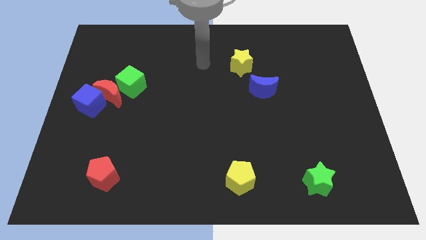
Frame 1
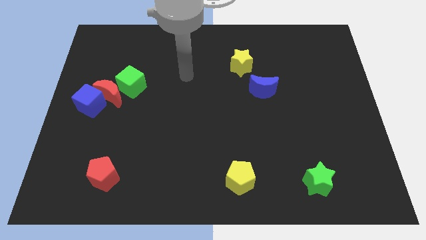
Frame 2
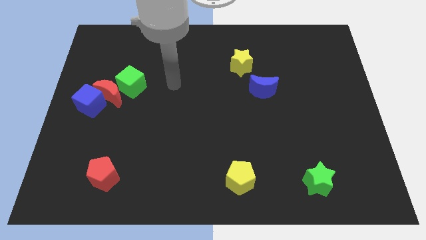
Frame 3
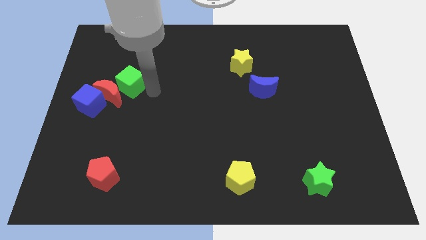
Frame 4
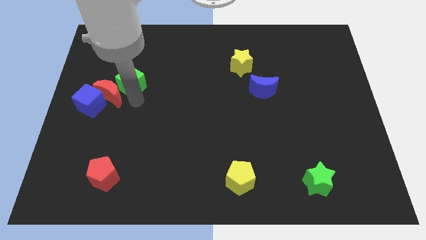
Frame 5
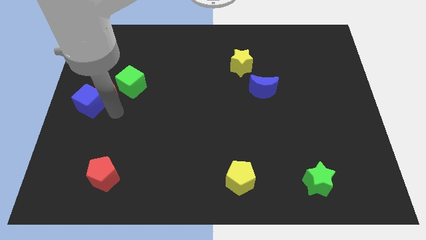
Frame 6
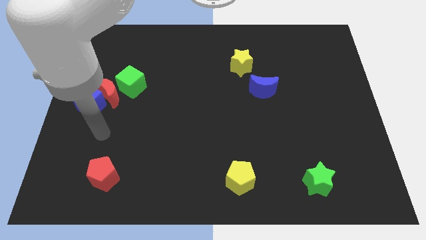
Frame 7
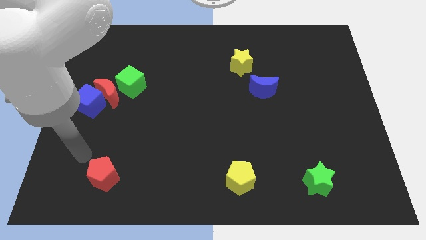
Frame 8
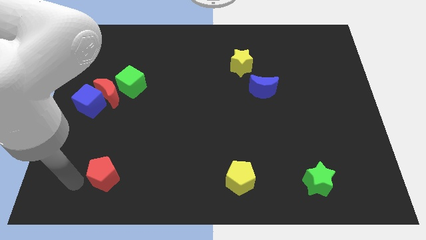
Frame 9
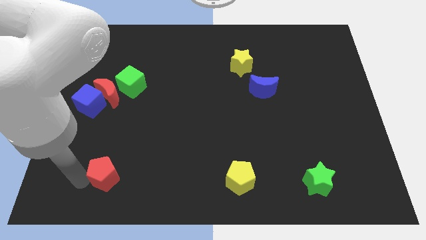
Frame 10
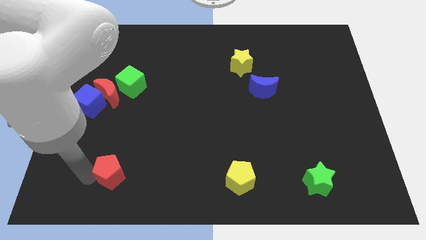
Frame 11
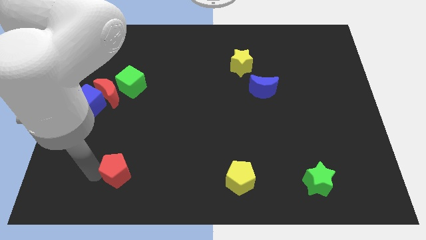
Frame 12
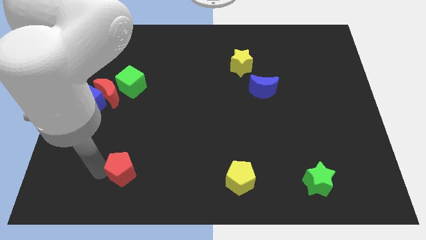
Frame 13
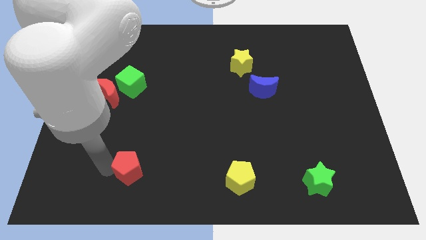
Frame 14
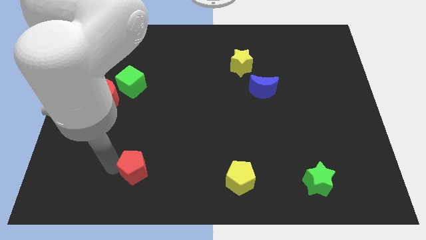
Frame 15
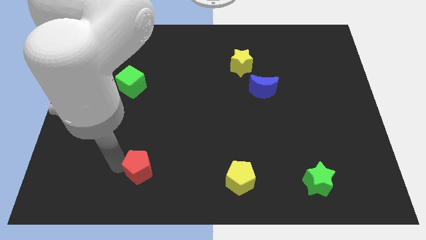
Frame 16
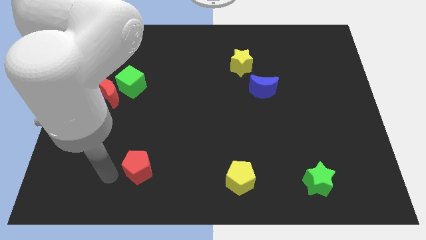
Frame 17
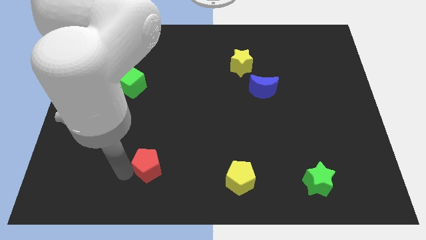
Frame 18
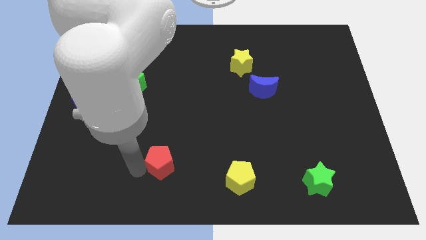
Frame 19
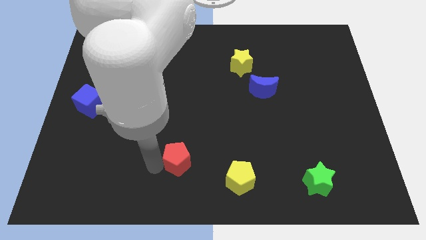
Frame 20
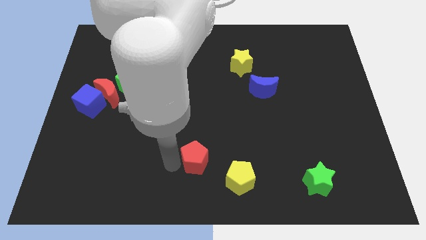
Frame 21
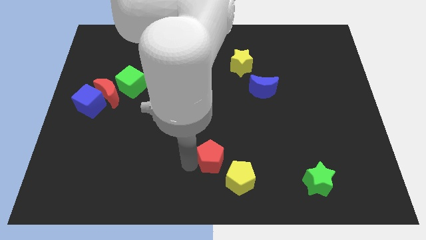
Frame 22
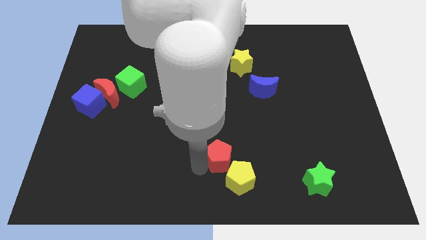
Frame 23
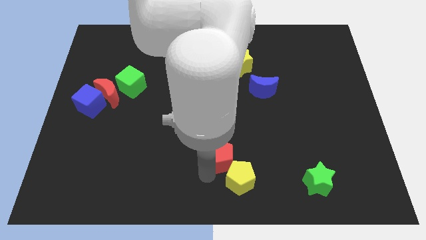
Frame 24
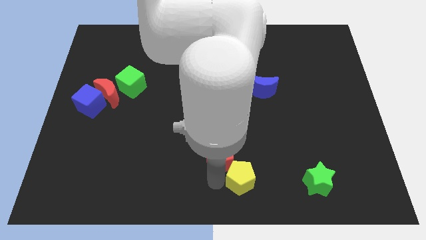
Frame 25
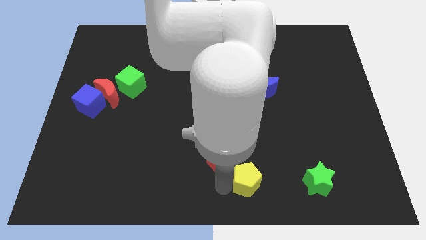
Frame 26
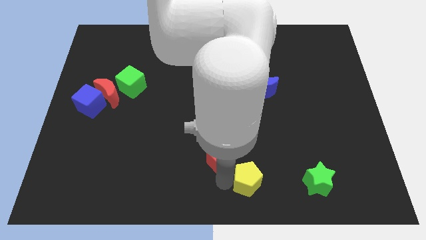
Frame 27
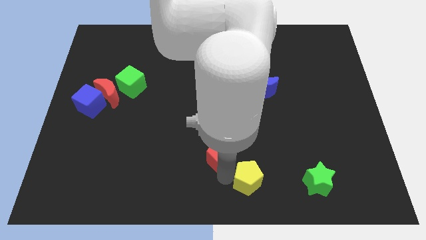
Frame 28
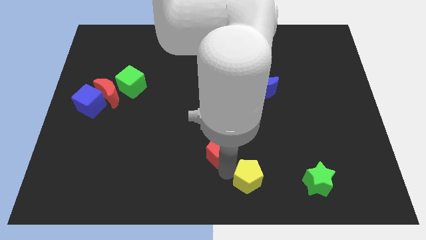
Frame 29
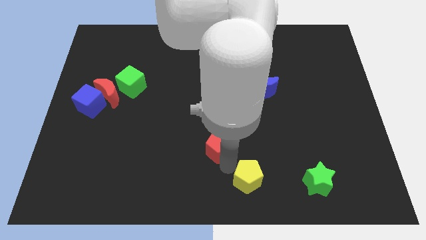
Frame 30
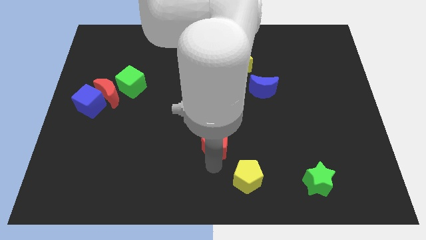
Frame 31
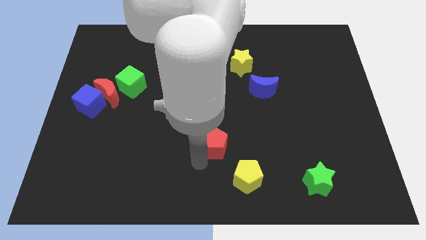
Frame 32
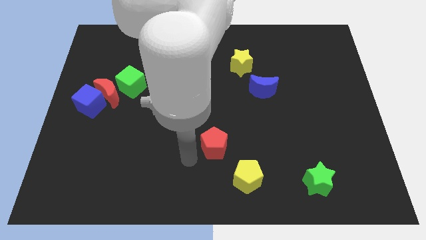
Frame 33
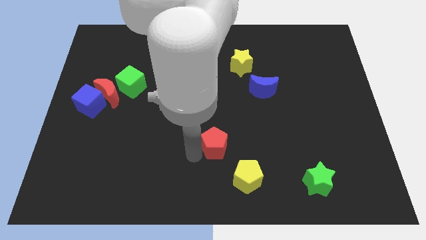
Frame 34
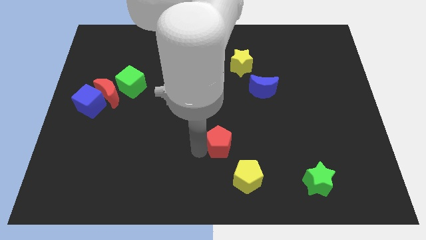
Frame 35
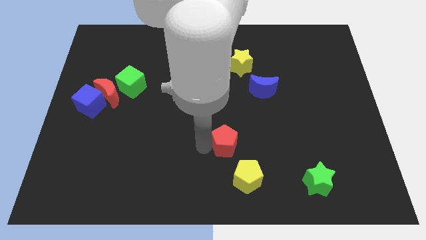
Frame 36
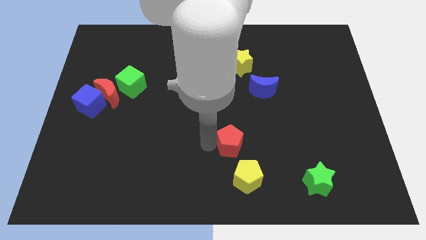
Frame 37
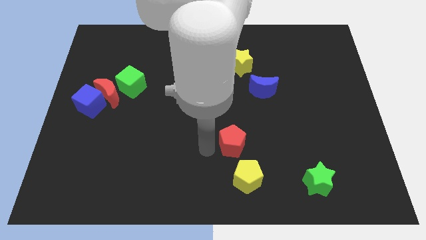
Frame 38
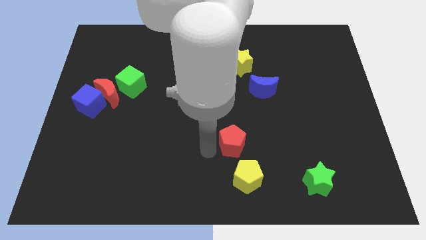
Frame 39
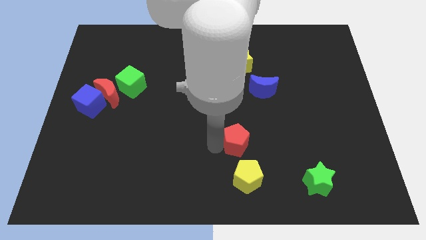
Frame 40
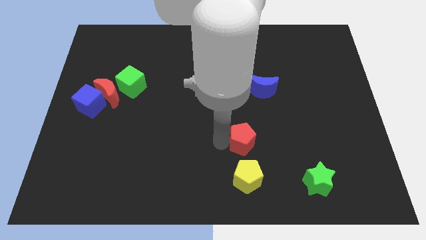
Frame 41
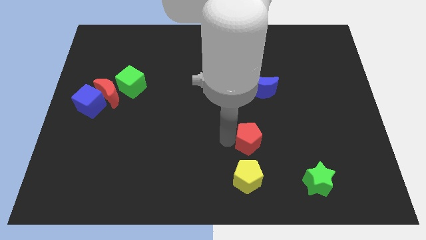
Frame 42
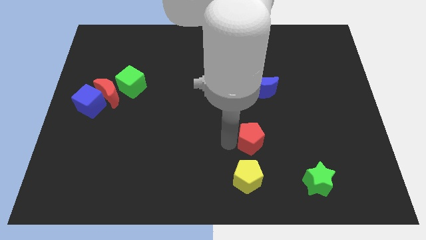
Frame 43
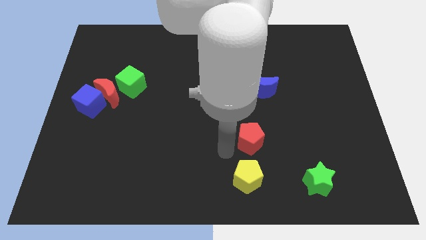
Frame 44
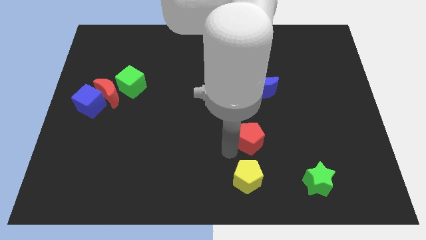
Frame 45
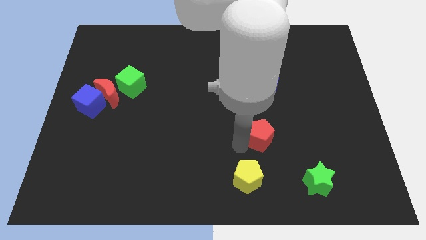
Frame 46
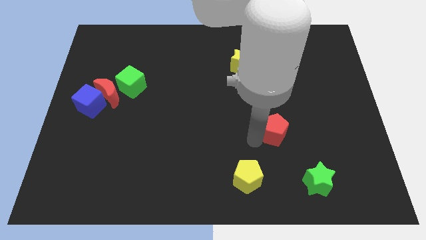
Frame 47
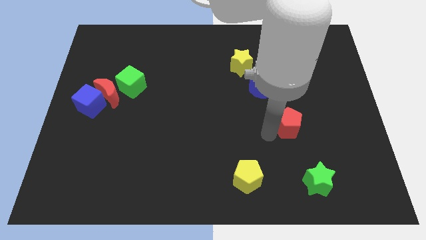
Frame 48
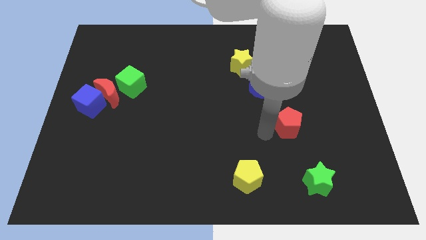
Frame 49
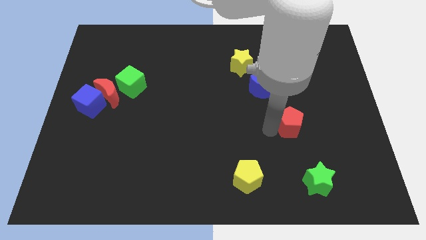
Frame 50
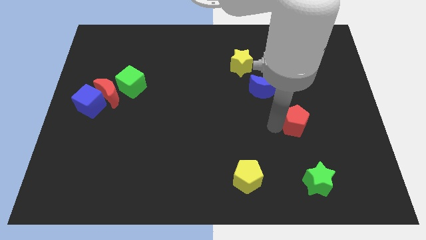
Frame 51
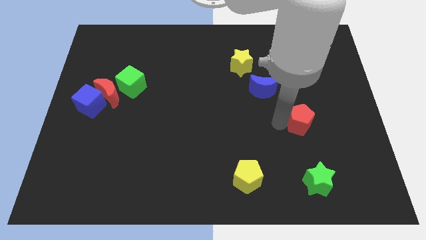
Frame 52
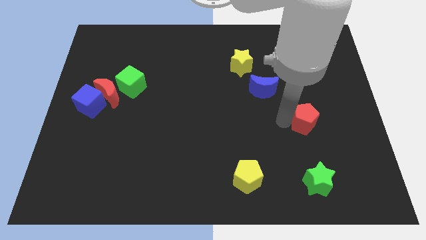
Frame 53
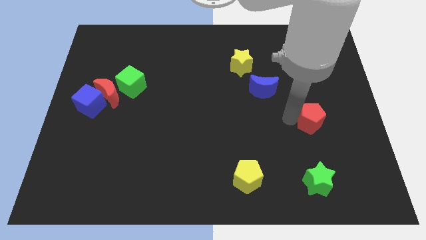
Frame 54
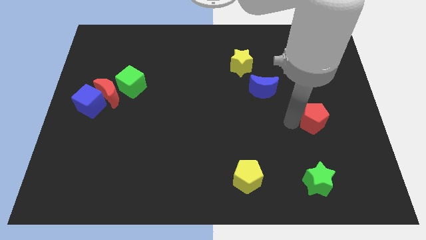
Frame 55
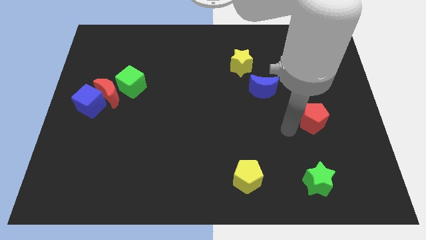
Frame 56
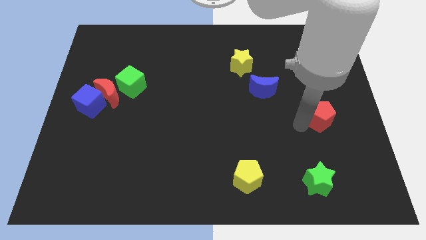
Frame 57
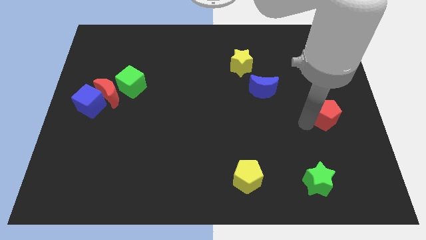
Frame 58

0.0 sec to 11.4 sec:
move the red pentagon to the right side

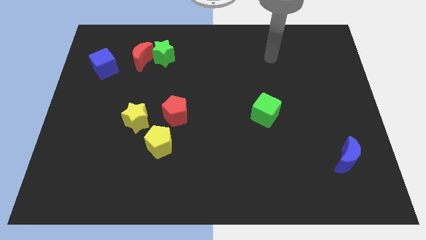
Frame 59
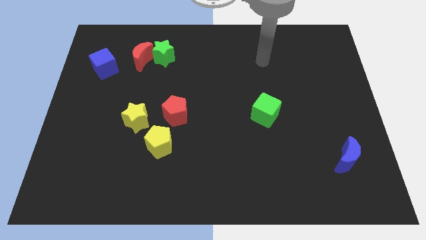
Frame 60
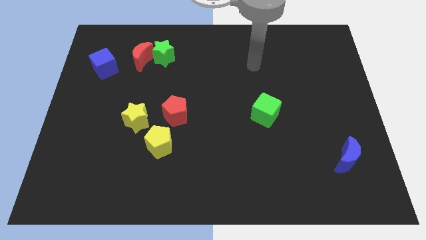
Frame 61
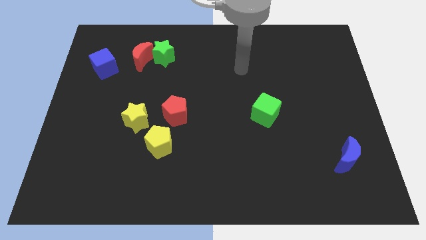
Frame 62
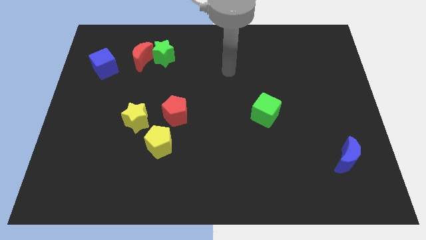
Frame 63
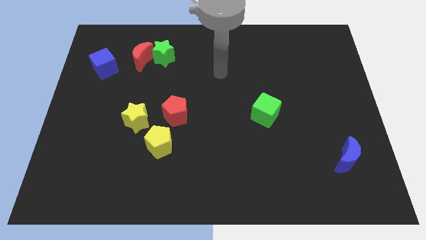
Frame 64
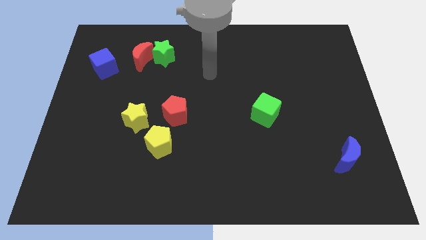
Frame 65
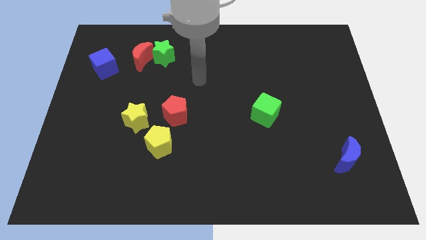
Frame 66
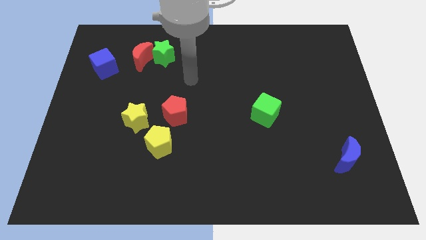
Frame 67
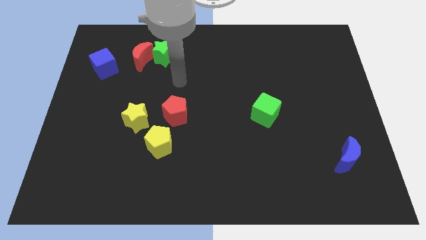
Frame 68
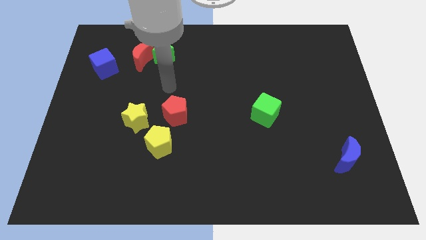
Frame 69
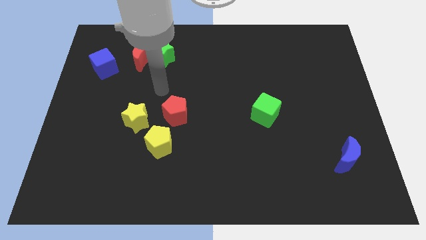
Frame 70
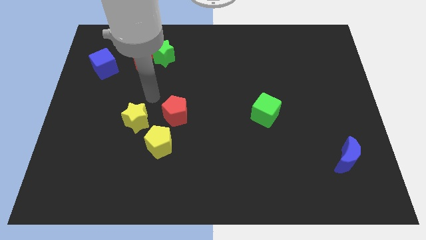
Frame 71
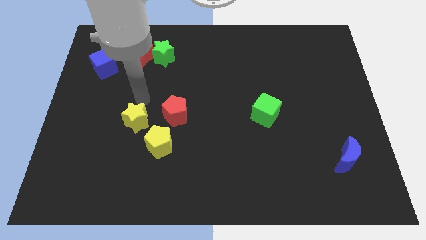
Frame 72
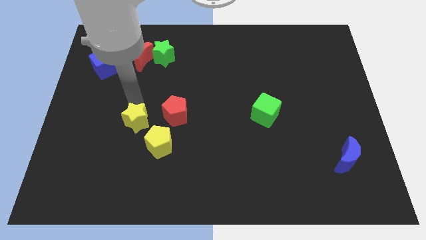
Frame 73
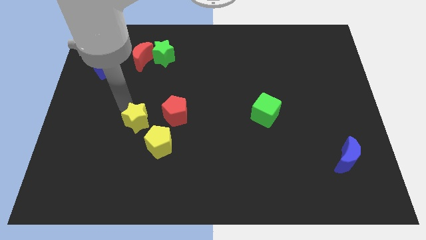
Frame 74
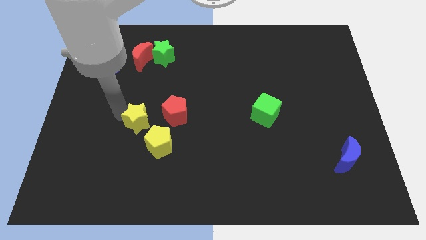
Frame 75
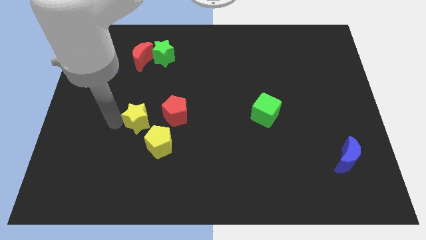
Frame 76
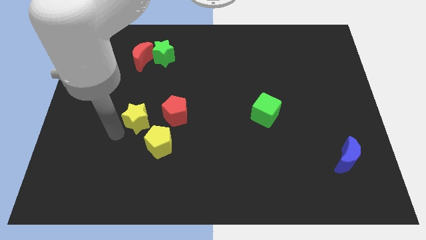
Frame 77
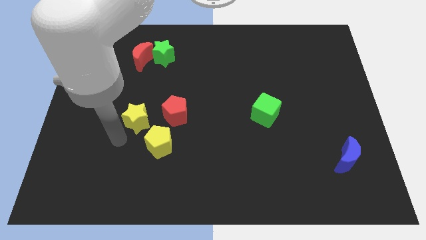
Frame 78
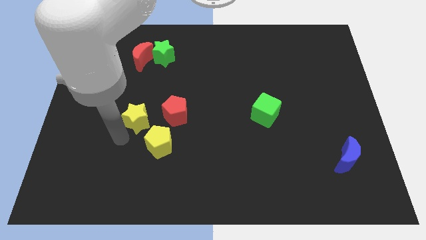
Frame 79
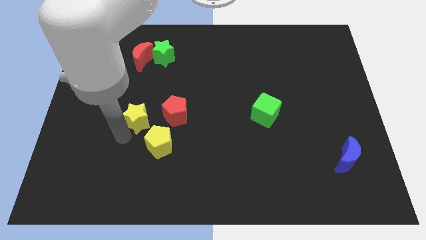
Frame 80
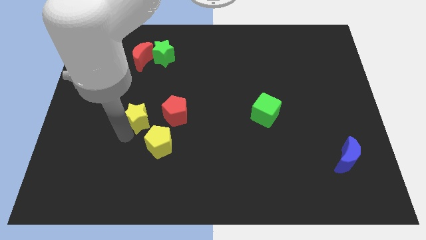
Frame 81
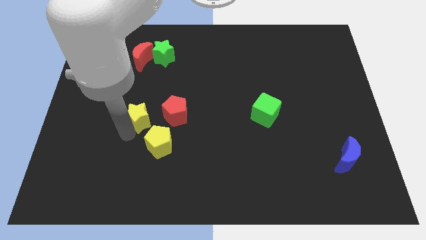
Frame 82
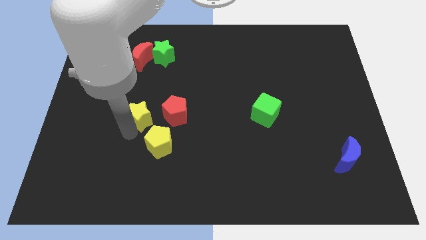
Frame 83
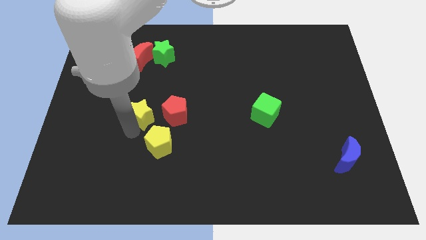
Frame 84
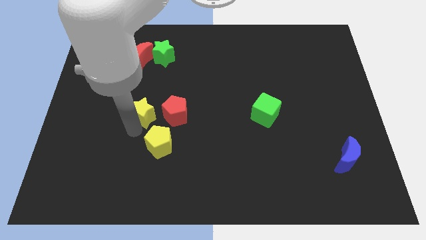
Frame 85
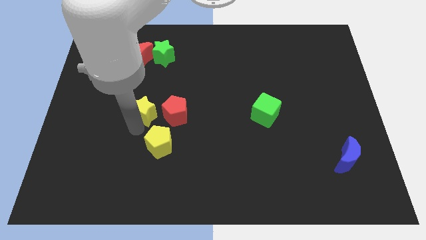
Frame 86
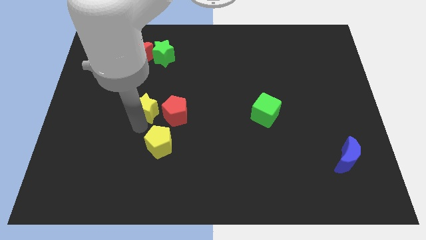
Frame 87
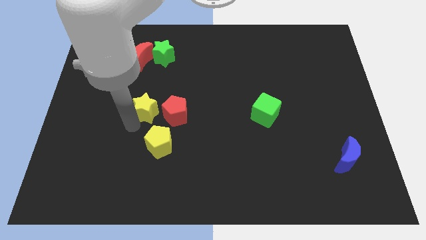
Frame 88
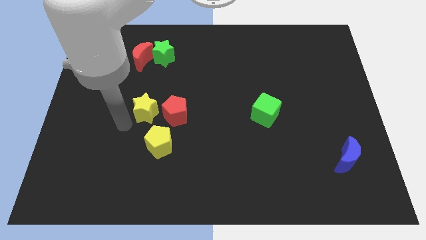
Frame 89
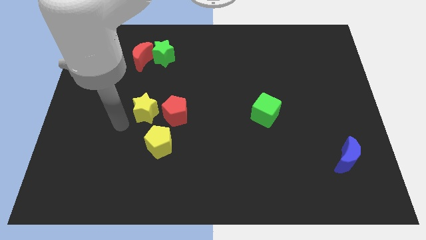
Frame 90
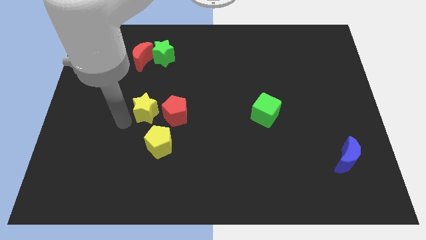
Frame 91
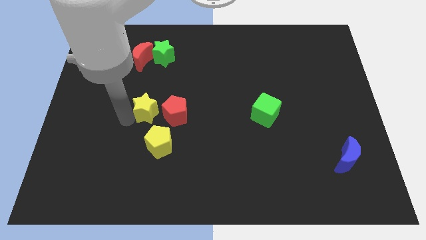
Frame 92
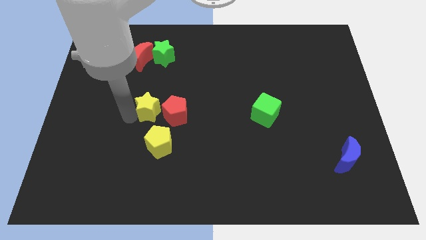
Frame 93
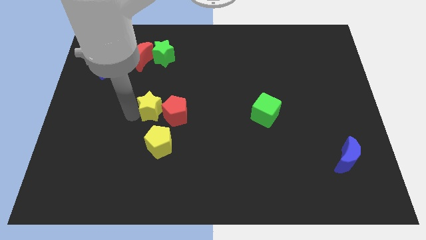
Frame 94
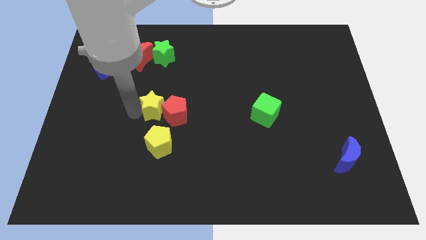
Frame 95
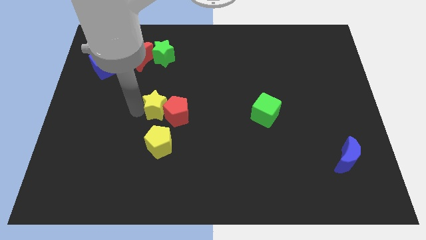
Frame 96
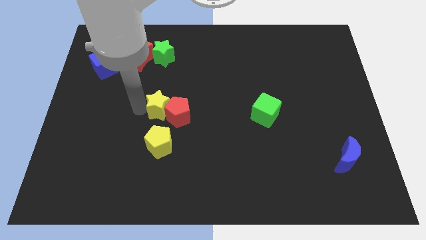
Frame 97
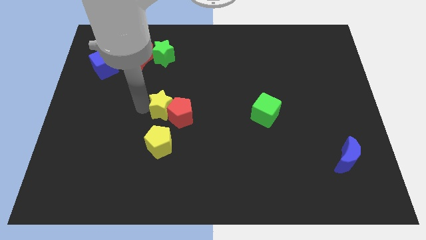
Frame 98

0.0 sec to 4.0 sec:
slide the yellow star to the middle of the board
